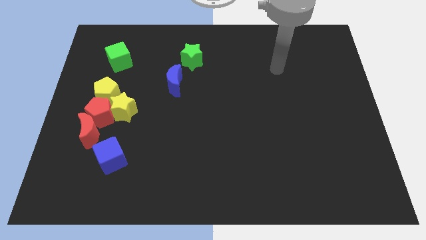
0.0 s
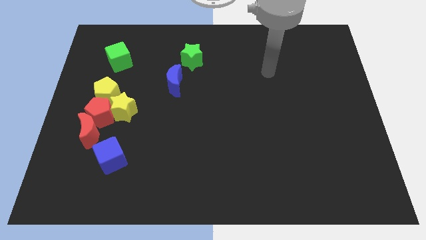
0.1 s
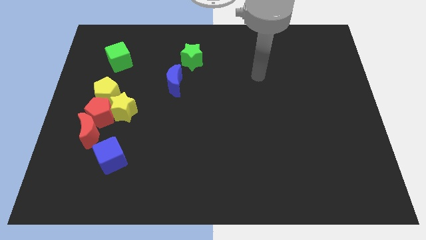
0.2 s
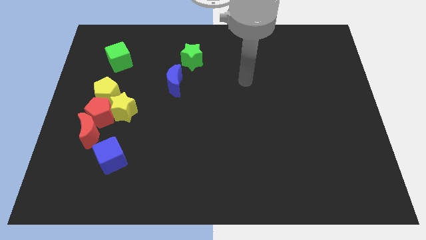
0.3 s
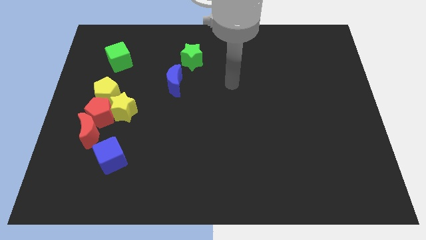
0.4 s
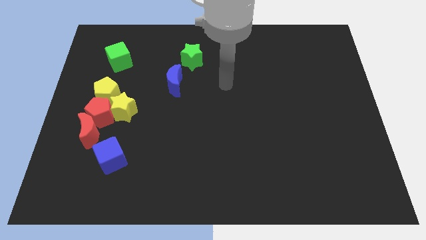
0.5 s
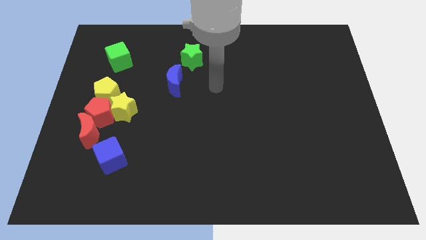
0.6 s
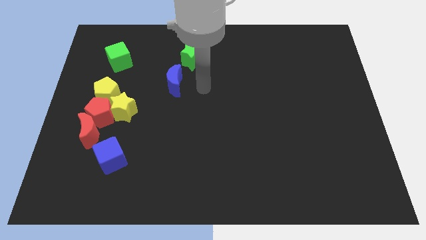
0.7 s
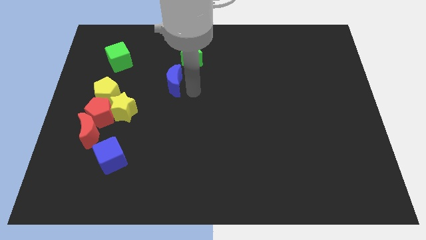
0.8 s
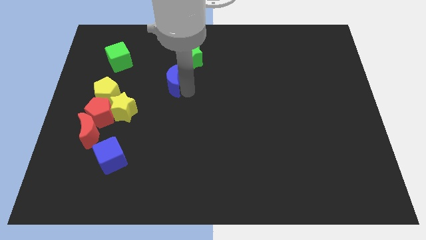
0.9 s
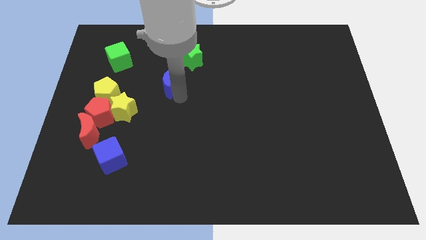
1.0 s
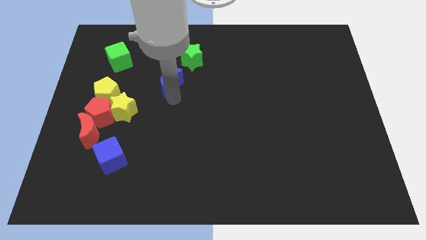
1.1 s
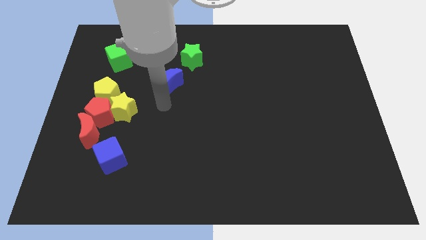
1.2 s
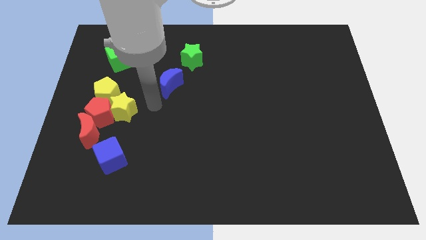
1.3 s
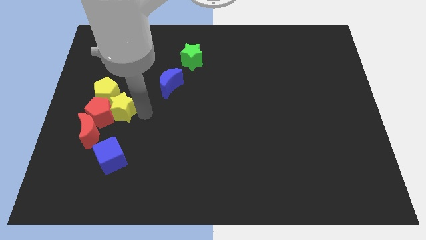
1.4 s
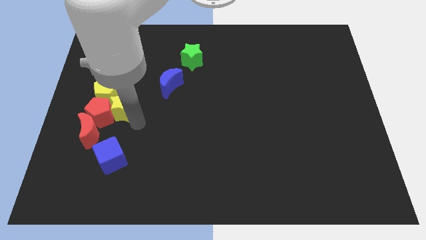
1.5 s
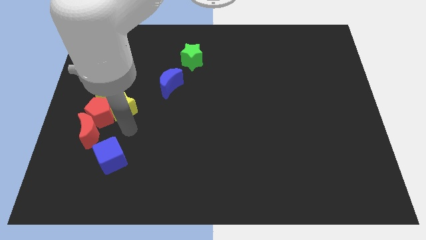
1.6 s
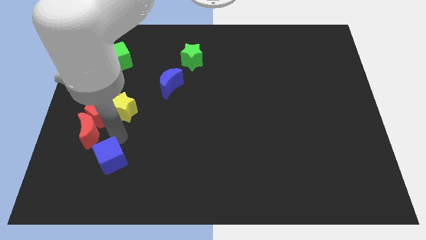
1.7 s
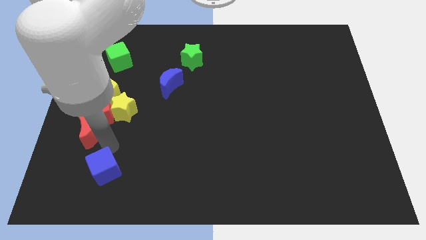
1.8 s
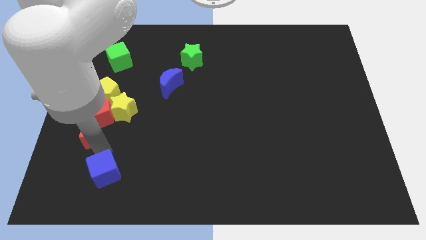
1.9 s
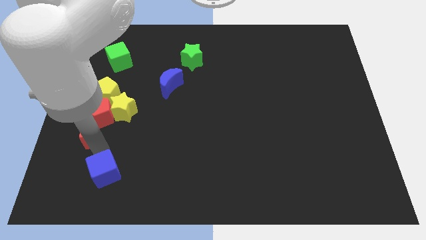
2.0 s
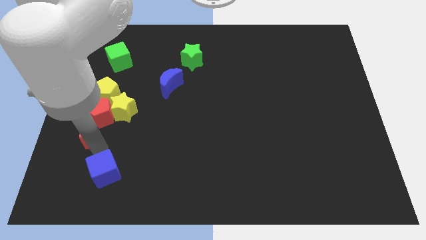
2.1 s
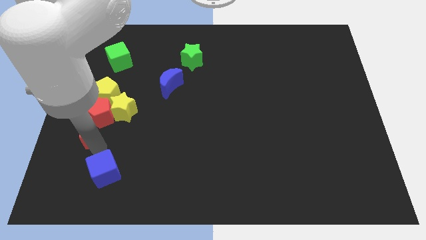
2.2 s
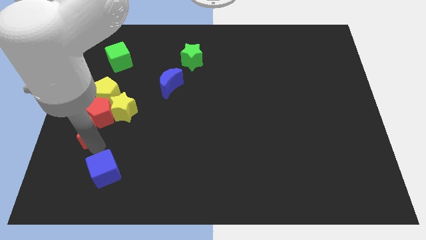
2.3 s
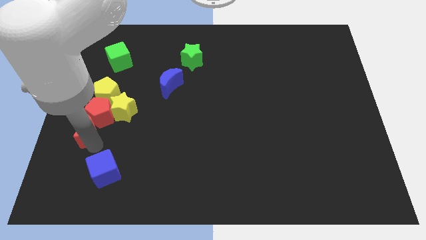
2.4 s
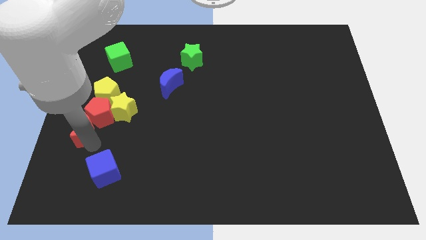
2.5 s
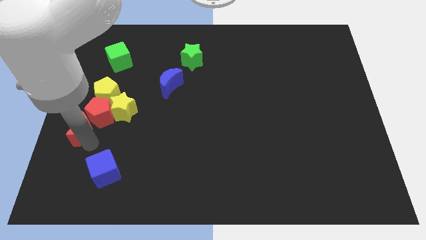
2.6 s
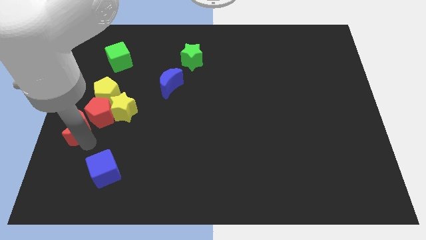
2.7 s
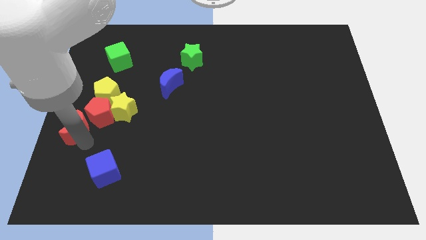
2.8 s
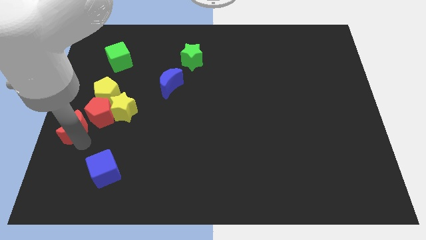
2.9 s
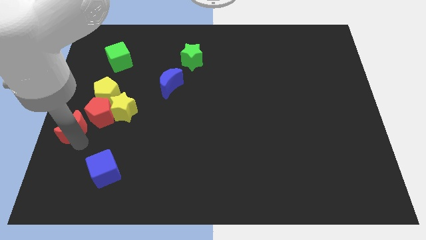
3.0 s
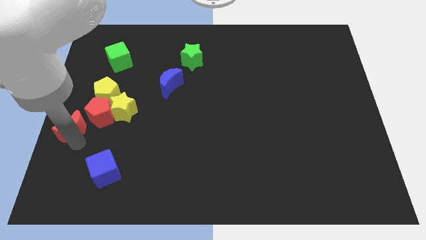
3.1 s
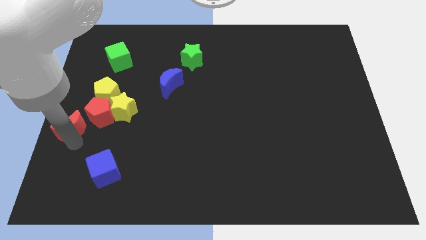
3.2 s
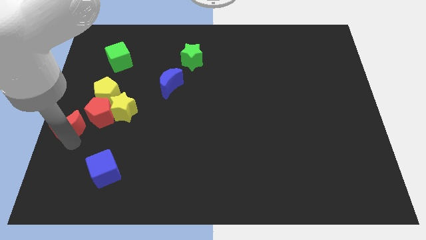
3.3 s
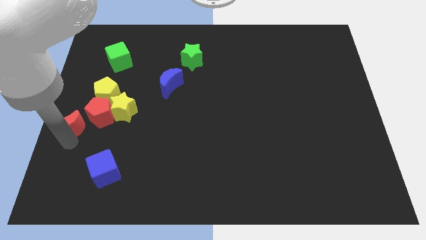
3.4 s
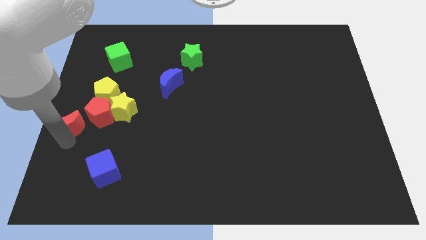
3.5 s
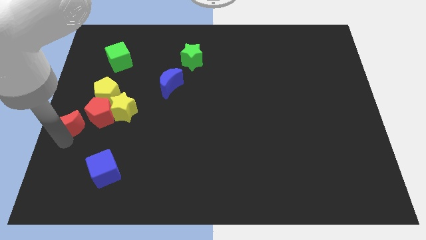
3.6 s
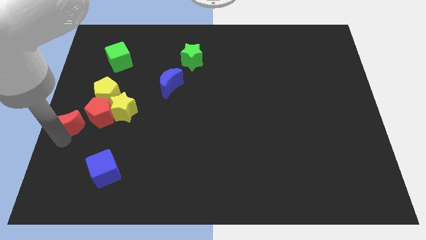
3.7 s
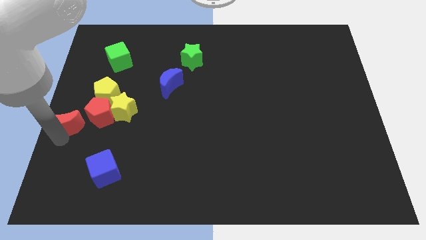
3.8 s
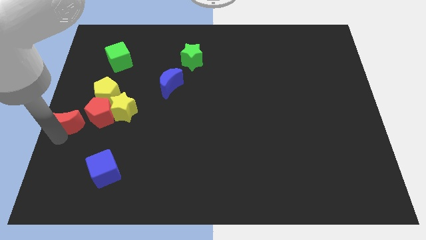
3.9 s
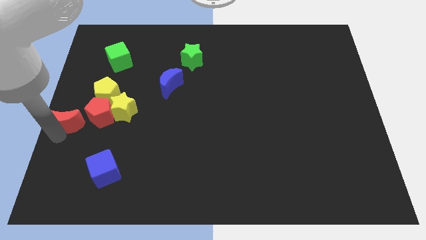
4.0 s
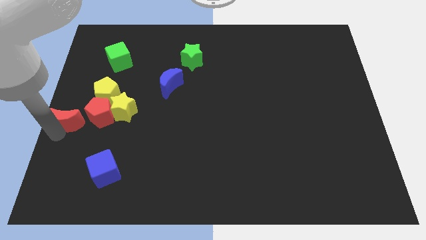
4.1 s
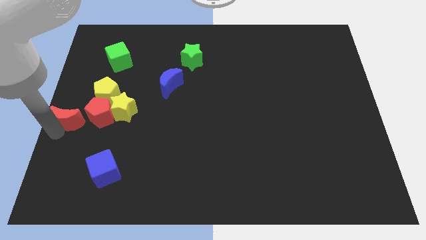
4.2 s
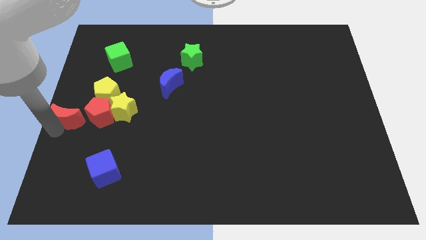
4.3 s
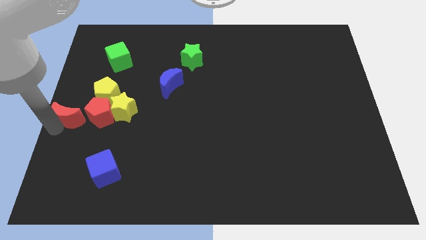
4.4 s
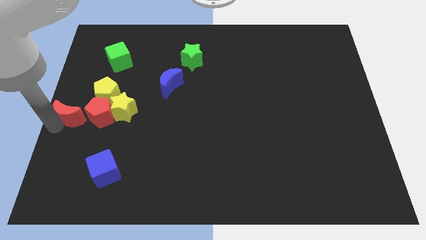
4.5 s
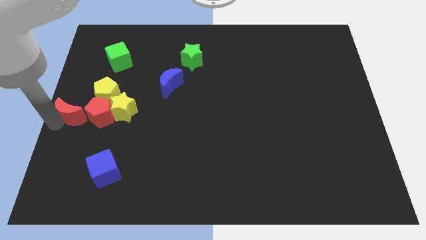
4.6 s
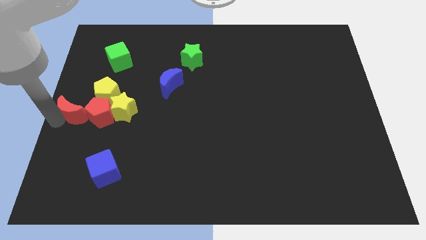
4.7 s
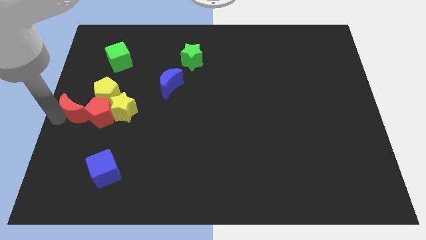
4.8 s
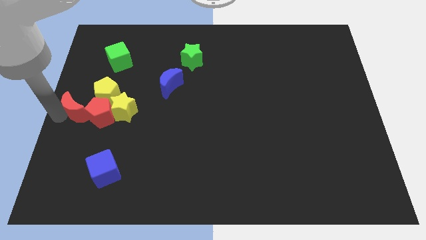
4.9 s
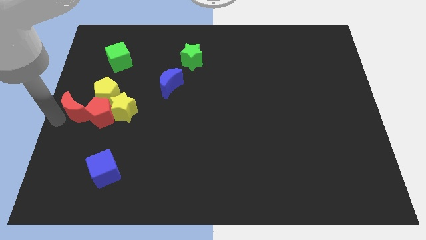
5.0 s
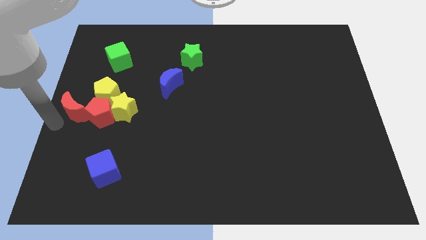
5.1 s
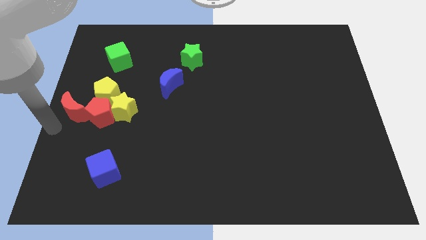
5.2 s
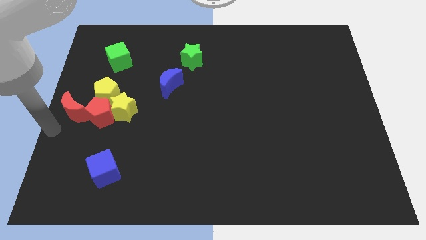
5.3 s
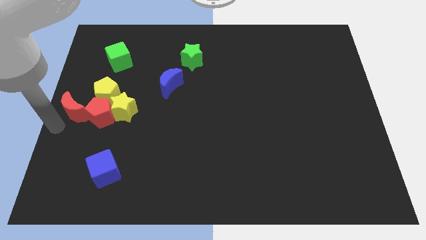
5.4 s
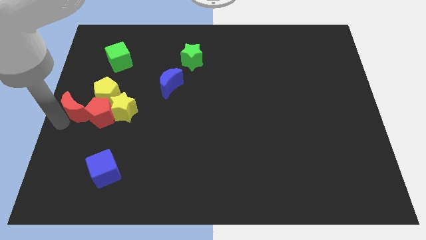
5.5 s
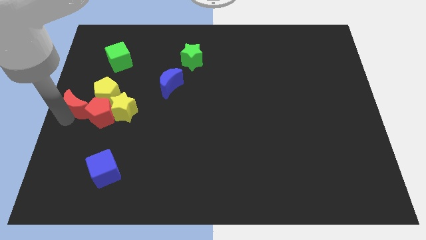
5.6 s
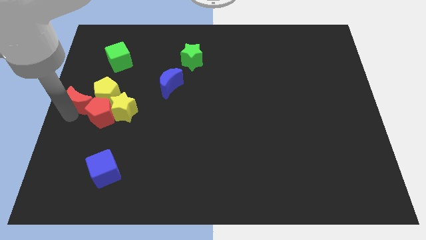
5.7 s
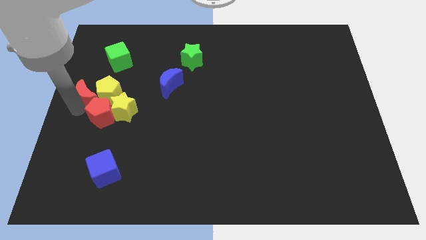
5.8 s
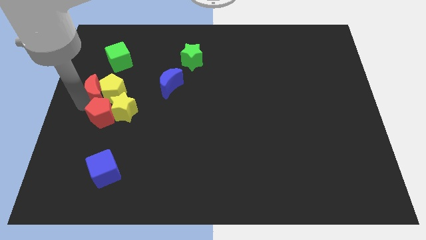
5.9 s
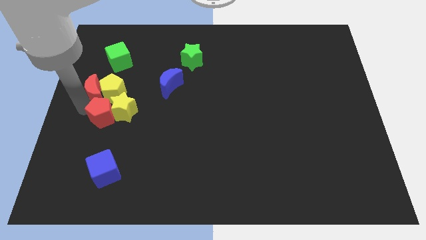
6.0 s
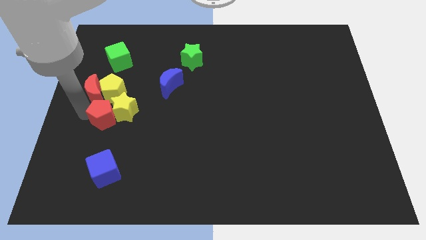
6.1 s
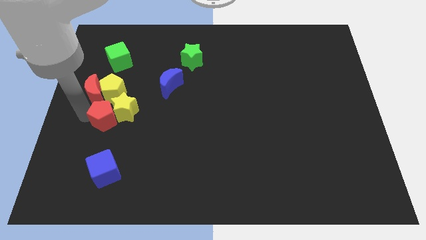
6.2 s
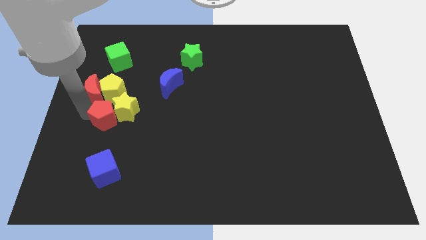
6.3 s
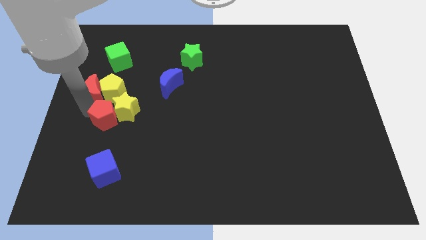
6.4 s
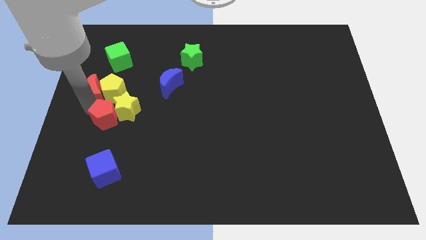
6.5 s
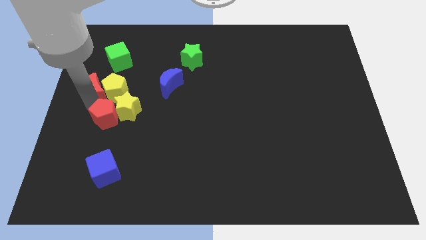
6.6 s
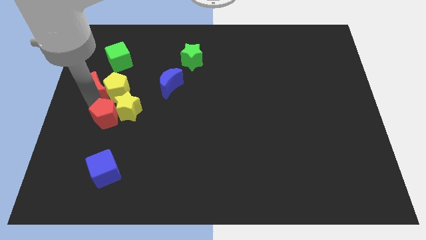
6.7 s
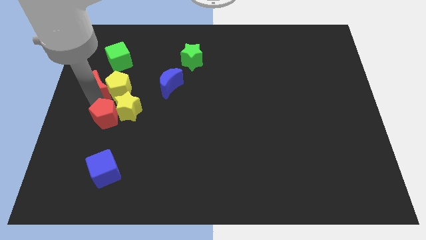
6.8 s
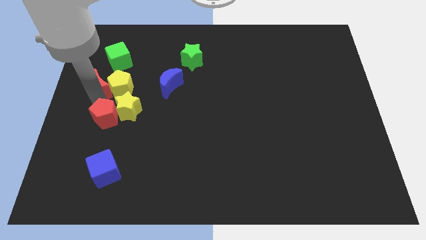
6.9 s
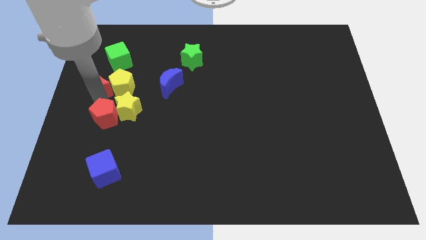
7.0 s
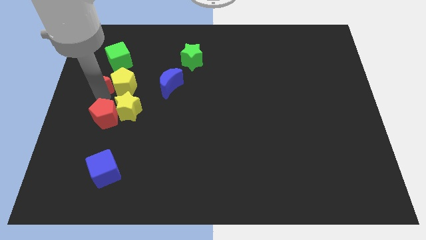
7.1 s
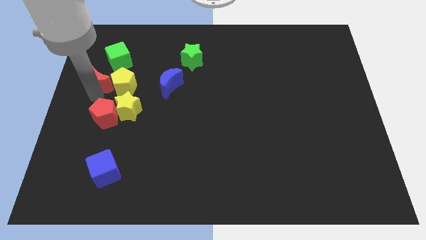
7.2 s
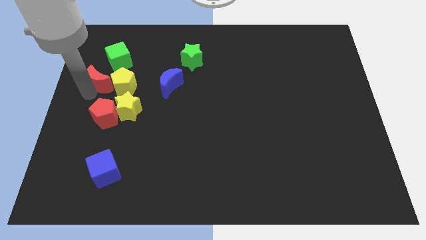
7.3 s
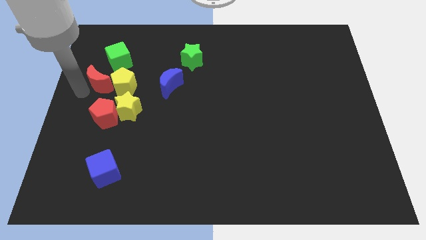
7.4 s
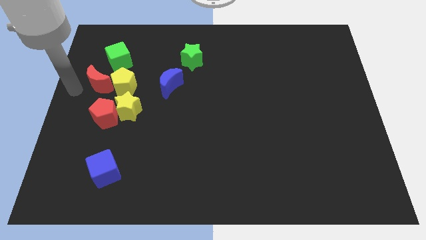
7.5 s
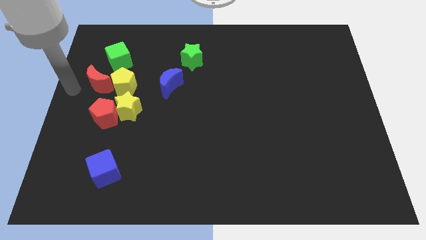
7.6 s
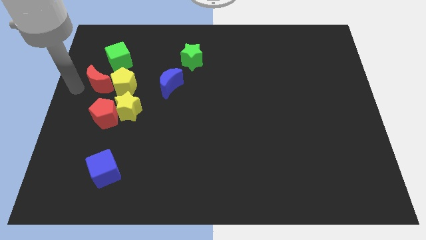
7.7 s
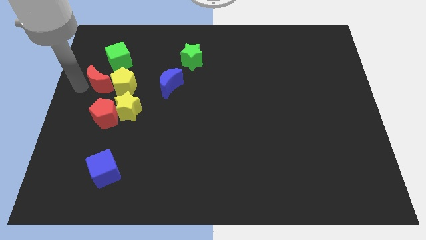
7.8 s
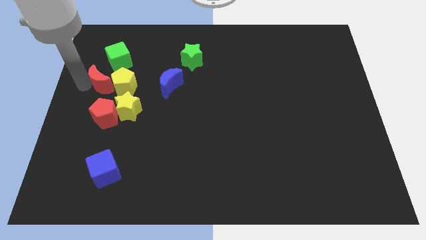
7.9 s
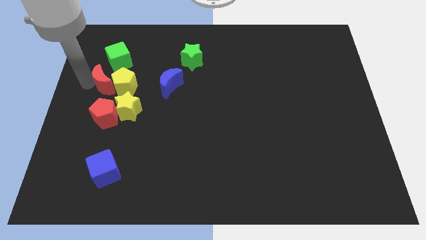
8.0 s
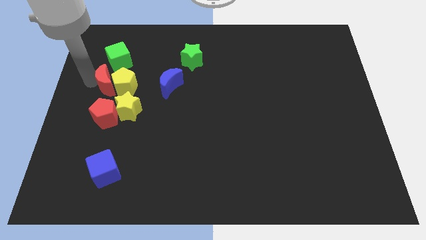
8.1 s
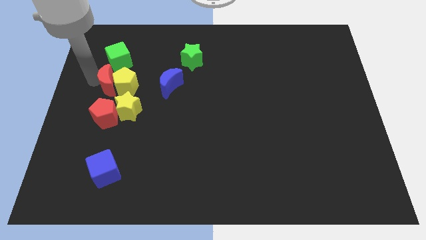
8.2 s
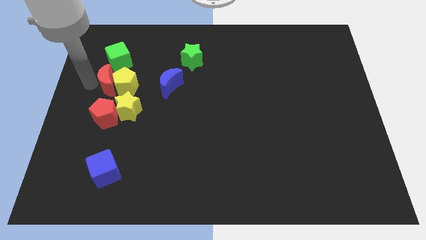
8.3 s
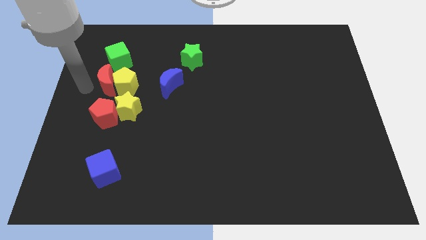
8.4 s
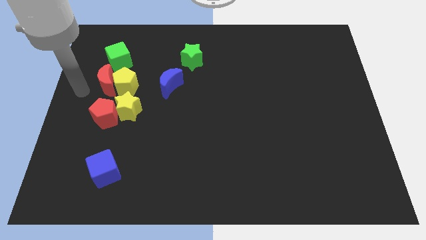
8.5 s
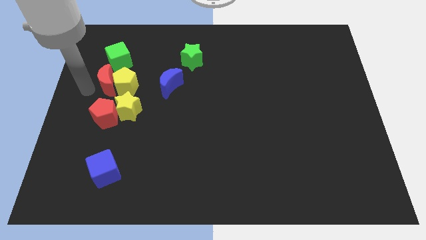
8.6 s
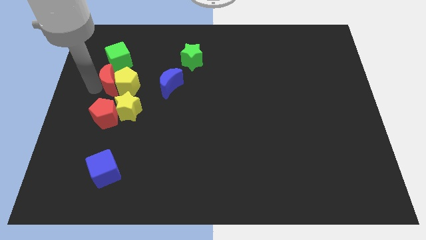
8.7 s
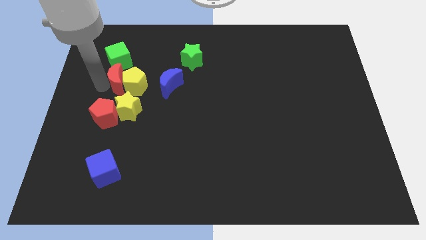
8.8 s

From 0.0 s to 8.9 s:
put the red moon to the top of the yellow star
